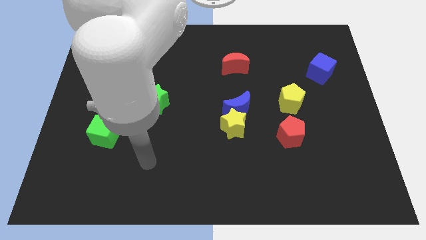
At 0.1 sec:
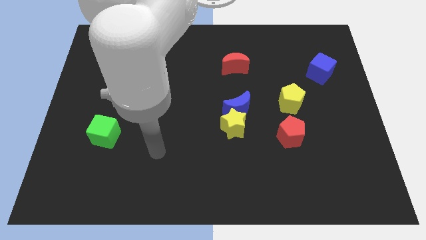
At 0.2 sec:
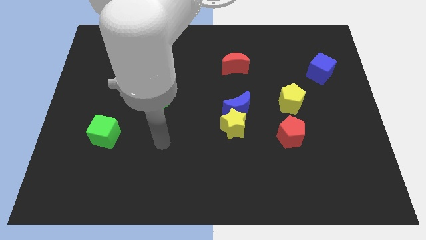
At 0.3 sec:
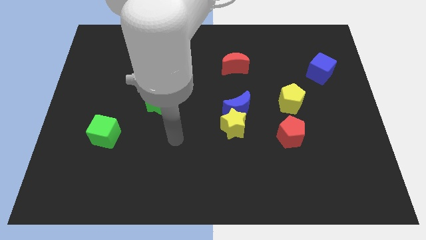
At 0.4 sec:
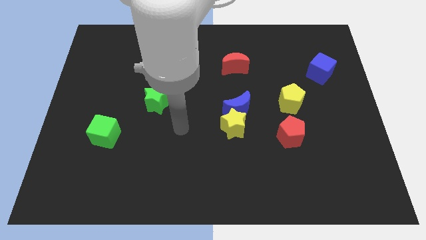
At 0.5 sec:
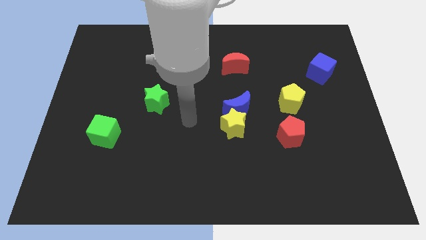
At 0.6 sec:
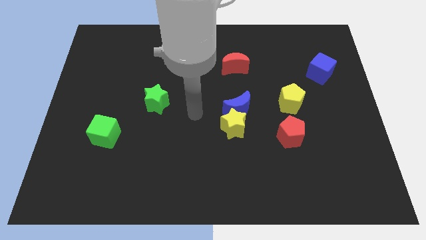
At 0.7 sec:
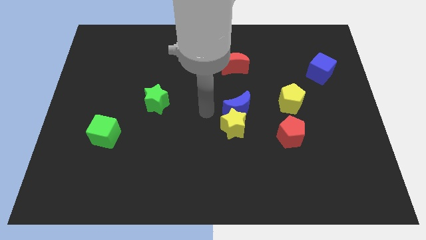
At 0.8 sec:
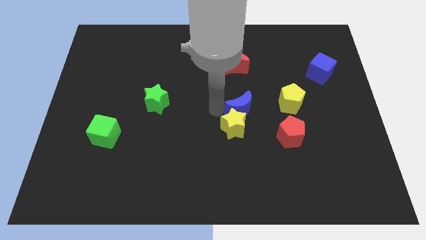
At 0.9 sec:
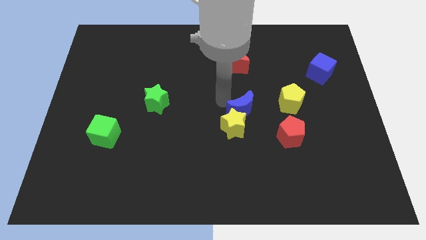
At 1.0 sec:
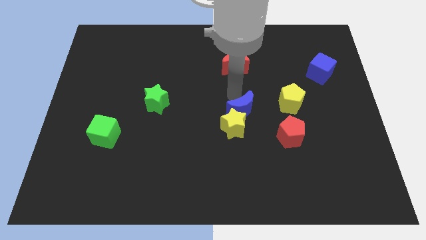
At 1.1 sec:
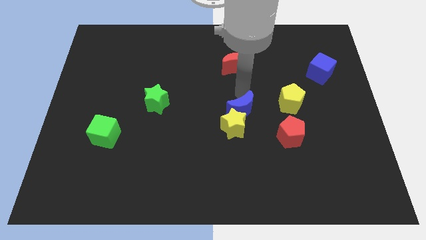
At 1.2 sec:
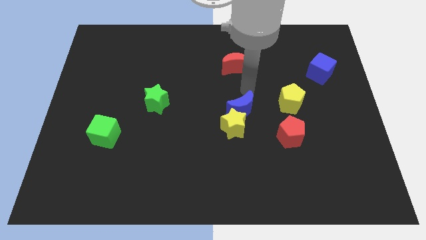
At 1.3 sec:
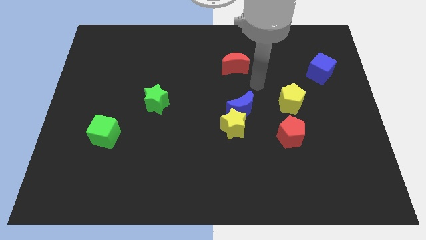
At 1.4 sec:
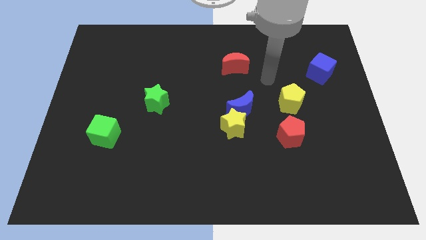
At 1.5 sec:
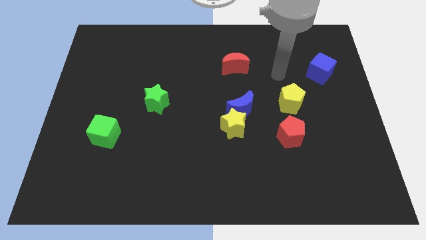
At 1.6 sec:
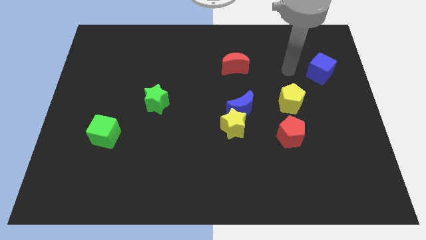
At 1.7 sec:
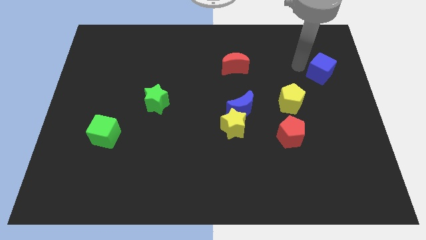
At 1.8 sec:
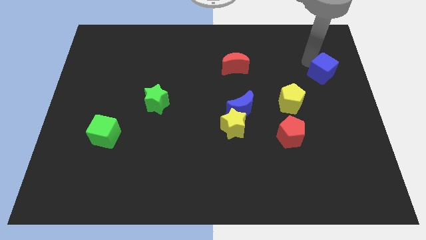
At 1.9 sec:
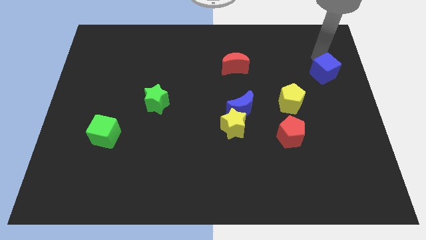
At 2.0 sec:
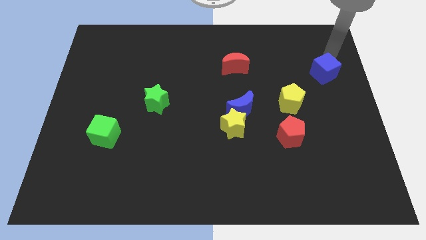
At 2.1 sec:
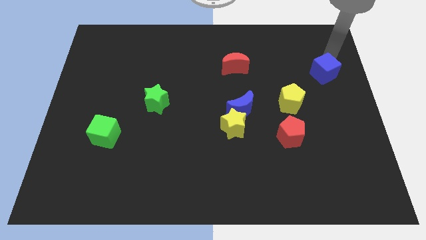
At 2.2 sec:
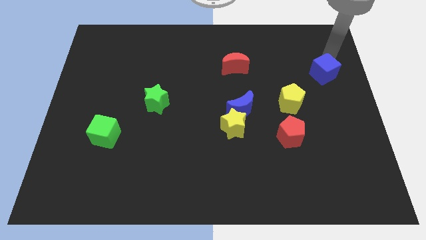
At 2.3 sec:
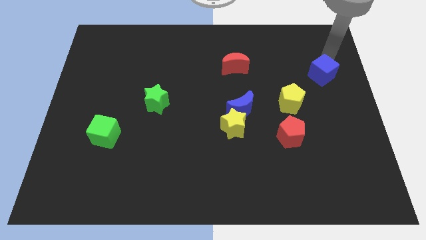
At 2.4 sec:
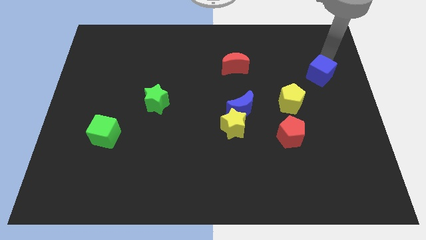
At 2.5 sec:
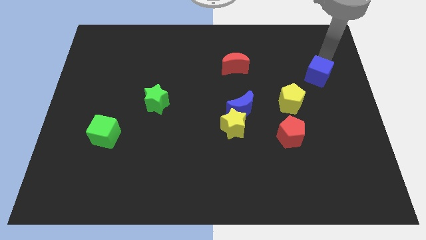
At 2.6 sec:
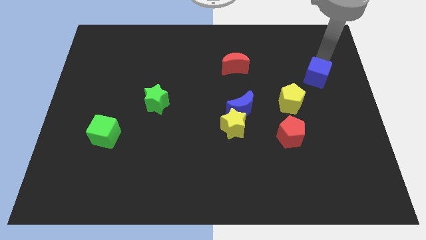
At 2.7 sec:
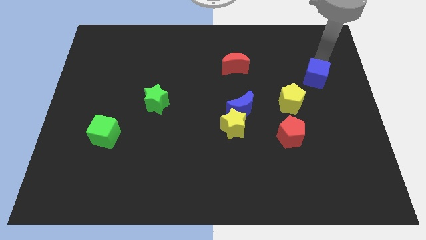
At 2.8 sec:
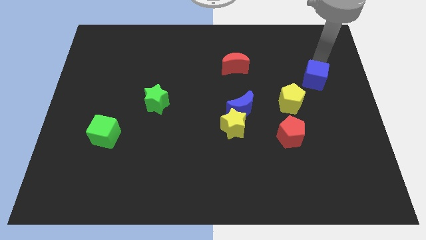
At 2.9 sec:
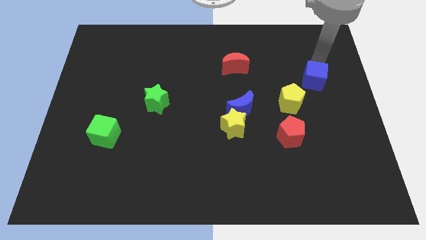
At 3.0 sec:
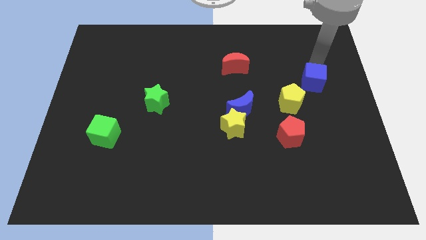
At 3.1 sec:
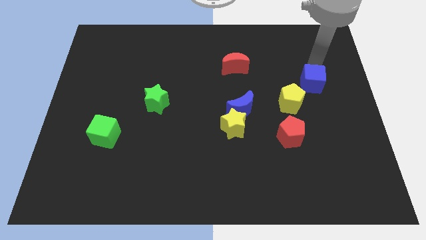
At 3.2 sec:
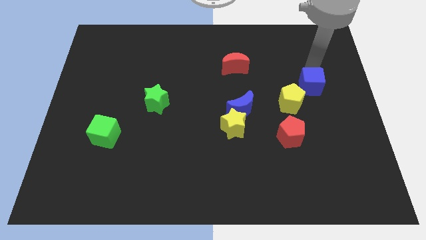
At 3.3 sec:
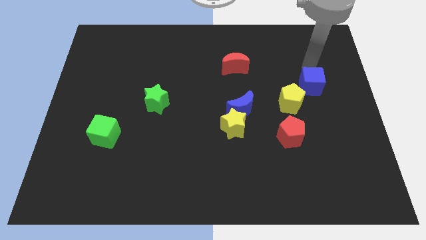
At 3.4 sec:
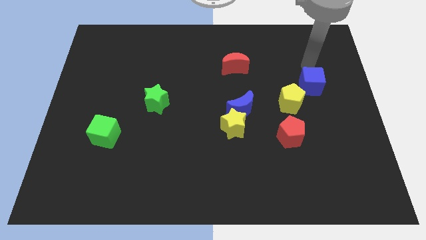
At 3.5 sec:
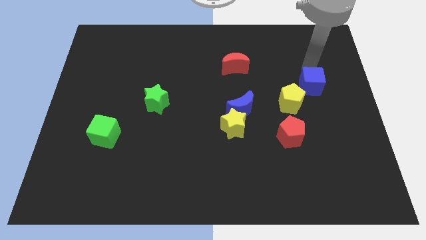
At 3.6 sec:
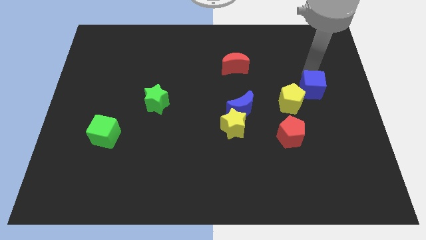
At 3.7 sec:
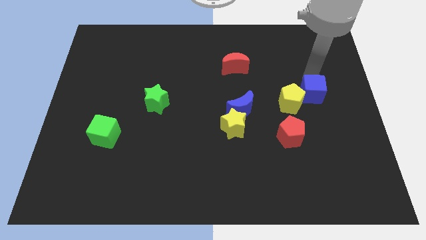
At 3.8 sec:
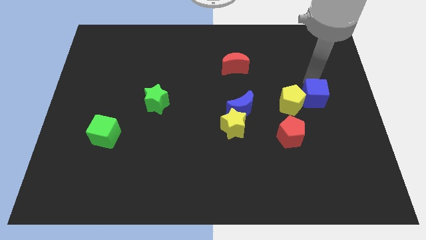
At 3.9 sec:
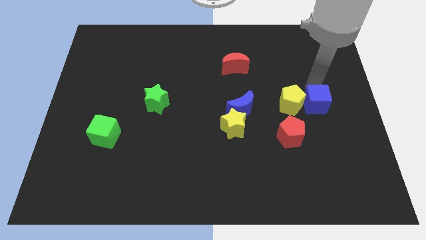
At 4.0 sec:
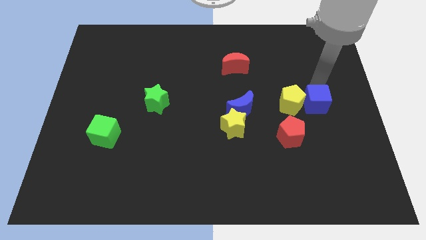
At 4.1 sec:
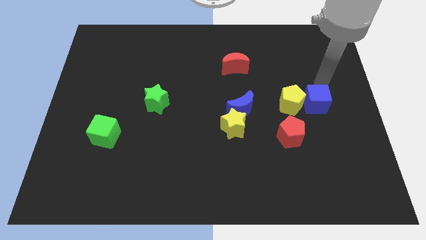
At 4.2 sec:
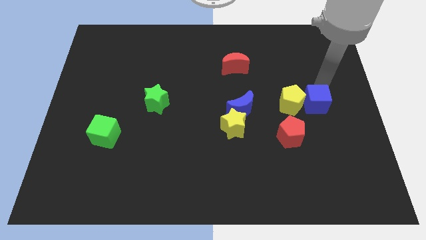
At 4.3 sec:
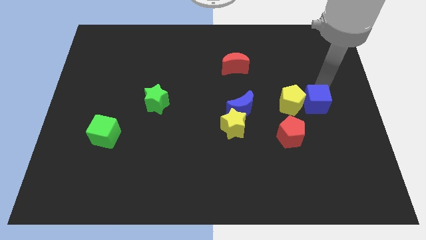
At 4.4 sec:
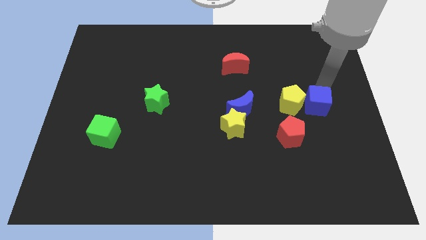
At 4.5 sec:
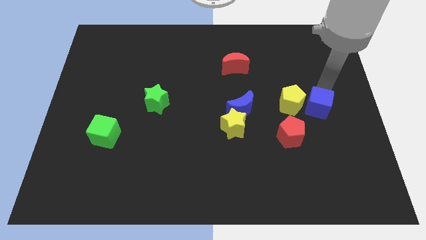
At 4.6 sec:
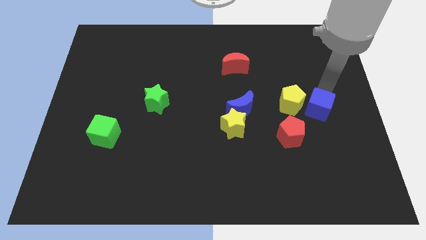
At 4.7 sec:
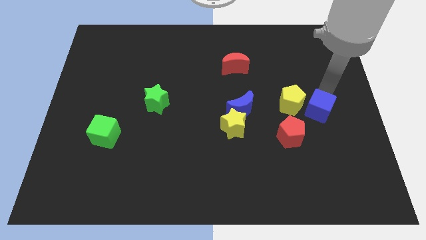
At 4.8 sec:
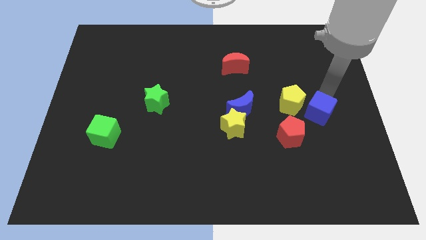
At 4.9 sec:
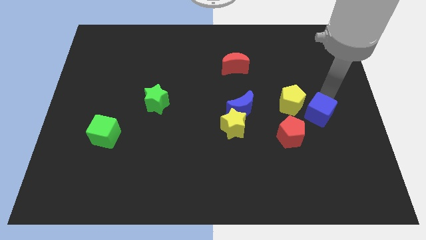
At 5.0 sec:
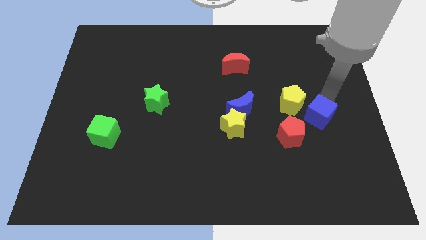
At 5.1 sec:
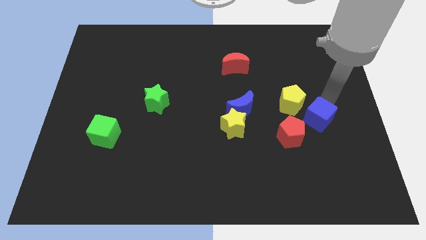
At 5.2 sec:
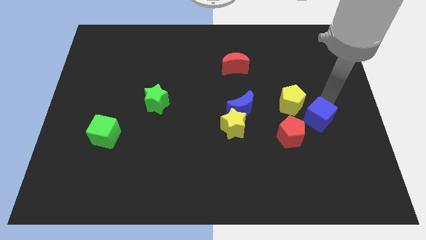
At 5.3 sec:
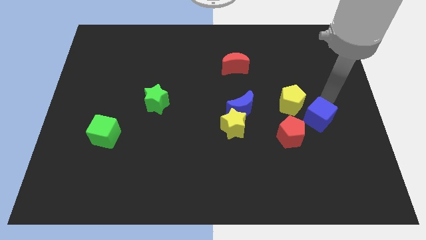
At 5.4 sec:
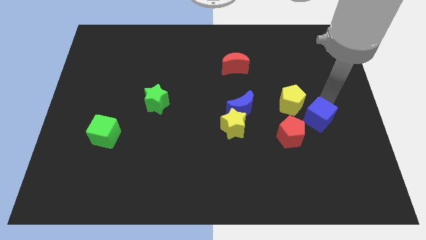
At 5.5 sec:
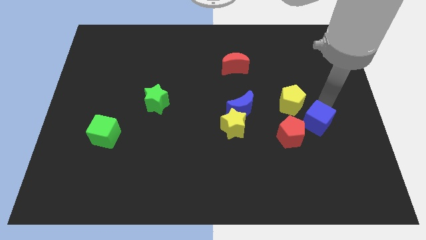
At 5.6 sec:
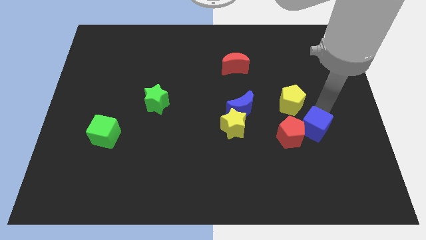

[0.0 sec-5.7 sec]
move the blue cube below the yellow pentagon

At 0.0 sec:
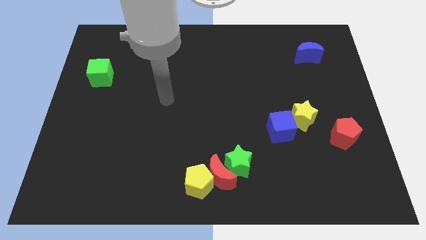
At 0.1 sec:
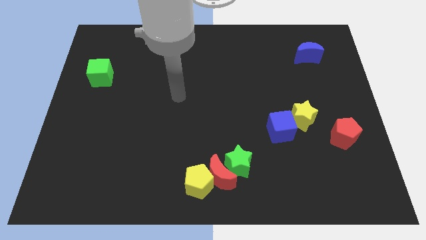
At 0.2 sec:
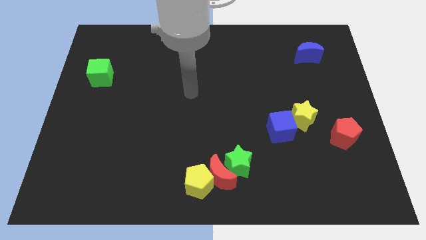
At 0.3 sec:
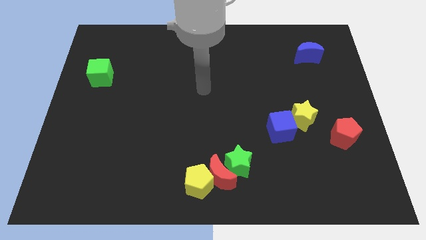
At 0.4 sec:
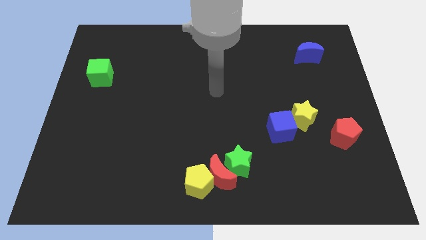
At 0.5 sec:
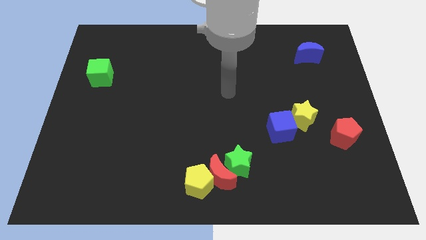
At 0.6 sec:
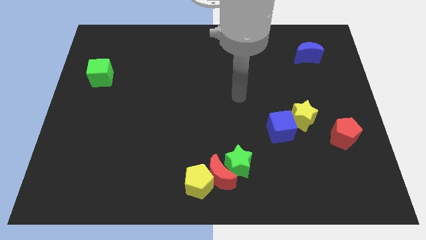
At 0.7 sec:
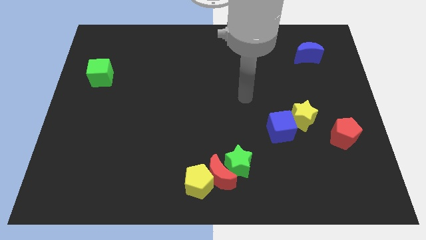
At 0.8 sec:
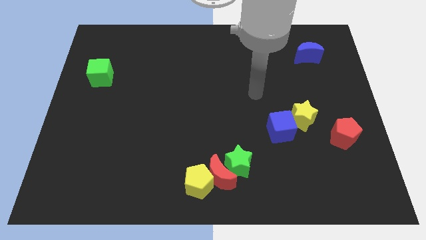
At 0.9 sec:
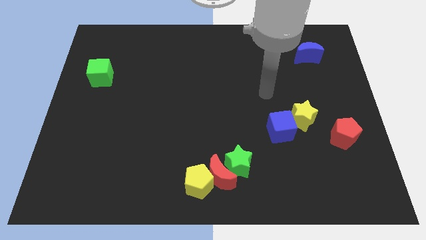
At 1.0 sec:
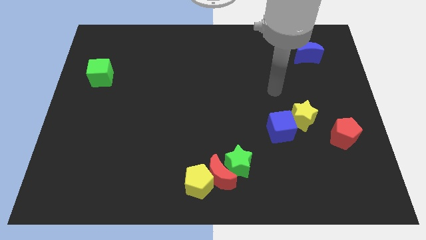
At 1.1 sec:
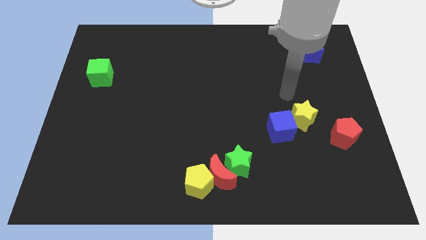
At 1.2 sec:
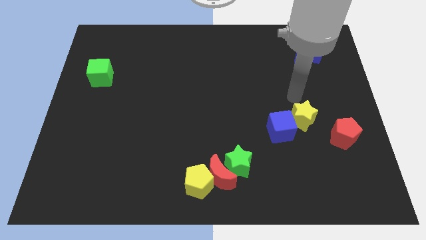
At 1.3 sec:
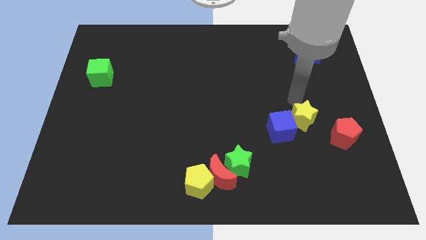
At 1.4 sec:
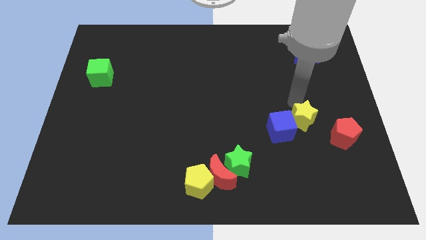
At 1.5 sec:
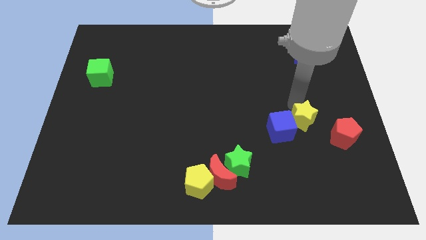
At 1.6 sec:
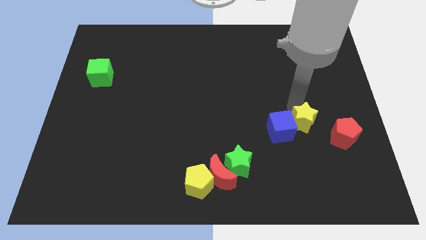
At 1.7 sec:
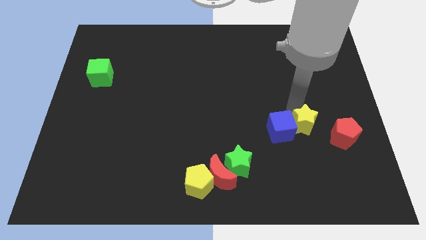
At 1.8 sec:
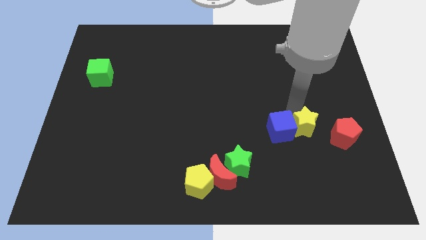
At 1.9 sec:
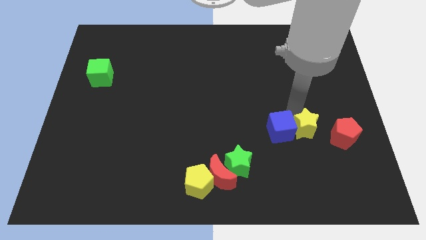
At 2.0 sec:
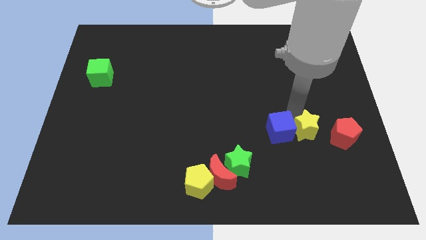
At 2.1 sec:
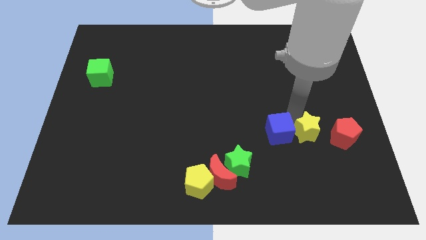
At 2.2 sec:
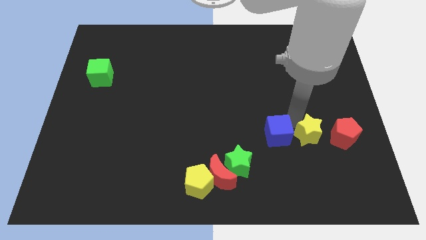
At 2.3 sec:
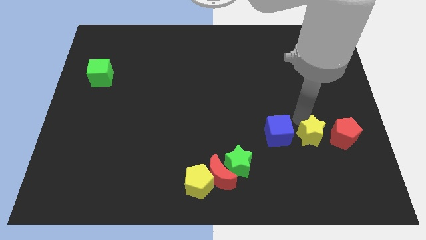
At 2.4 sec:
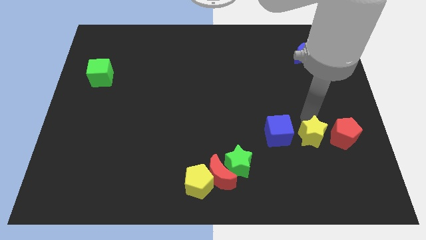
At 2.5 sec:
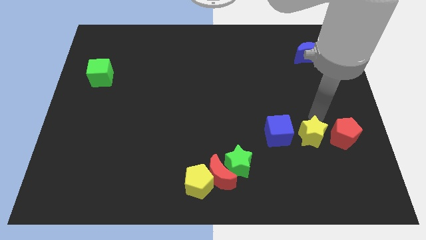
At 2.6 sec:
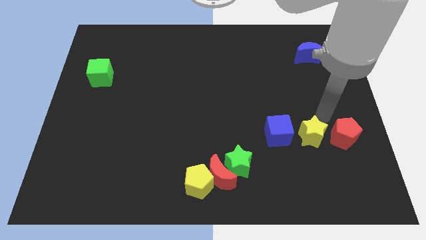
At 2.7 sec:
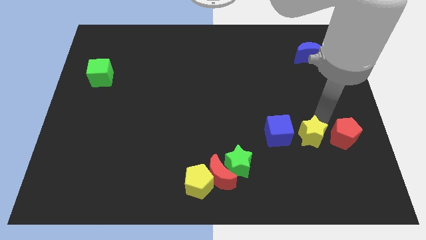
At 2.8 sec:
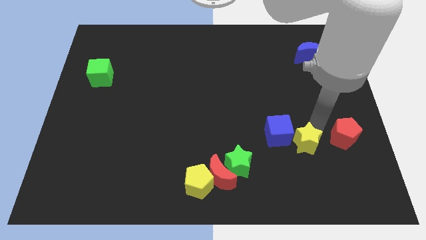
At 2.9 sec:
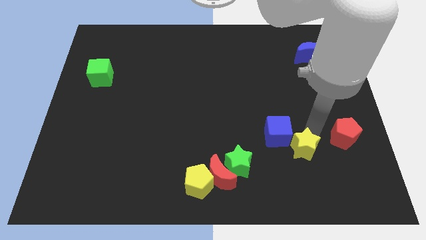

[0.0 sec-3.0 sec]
slide the yellow star to the right side of the green star
